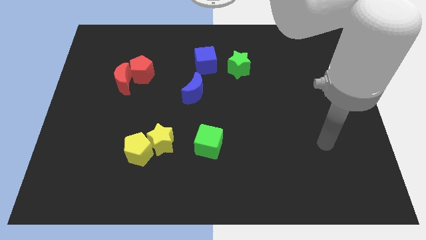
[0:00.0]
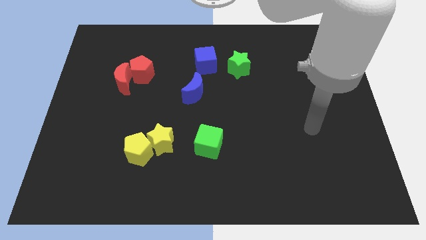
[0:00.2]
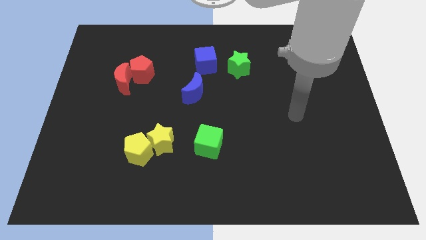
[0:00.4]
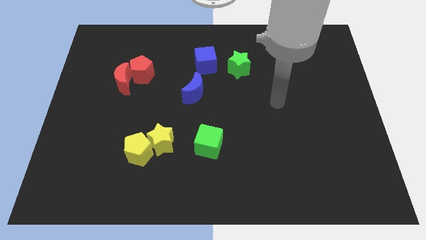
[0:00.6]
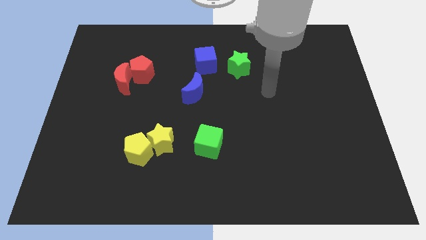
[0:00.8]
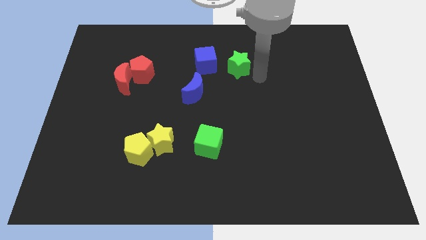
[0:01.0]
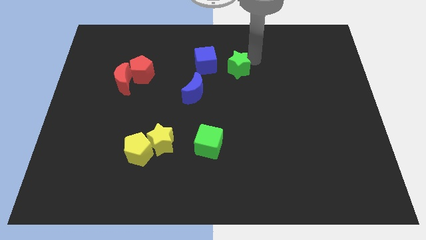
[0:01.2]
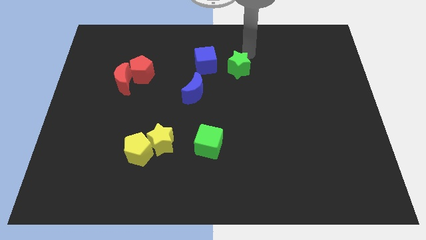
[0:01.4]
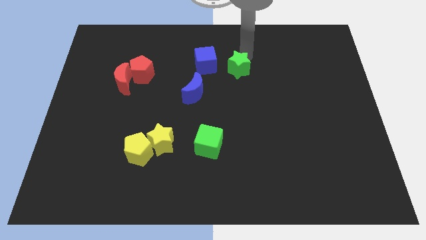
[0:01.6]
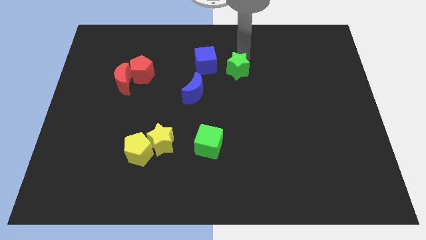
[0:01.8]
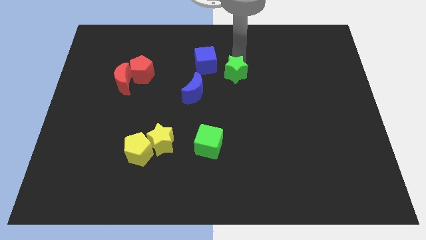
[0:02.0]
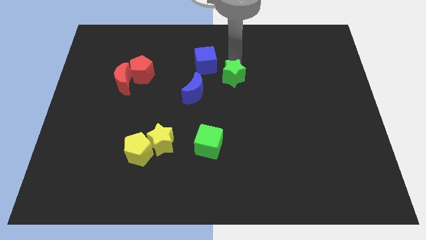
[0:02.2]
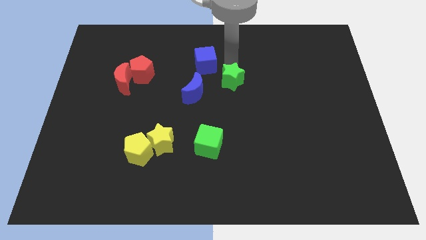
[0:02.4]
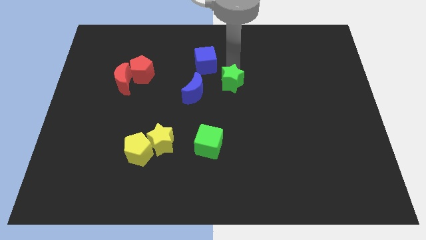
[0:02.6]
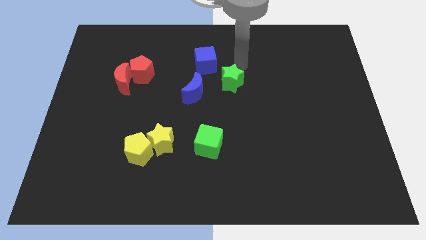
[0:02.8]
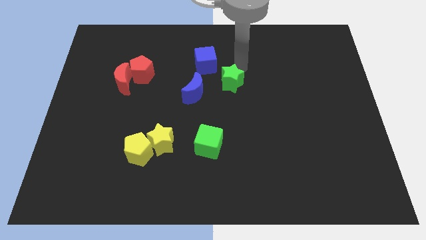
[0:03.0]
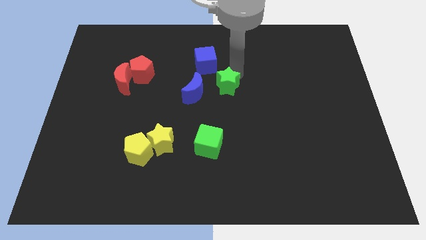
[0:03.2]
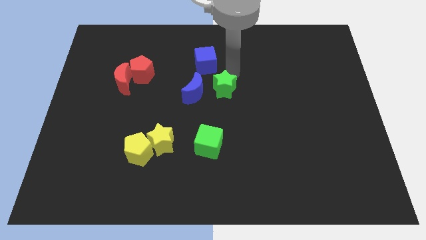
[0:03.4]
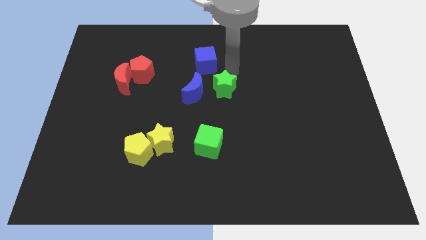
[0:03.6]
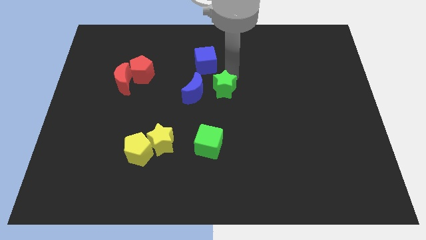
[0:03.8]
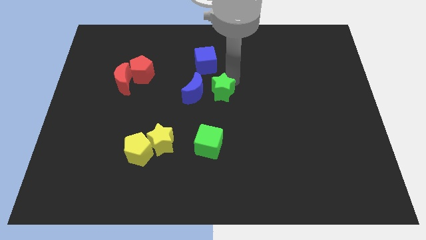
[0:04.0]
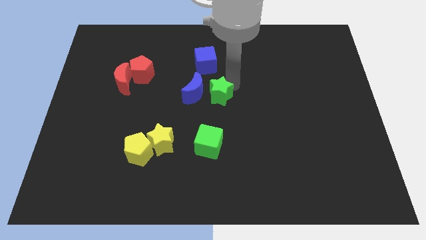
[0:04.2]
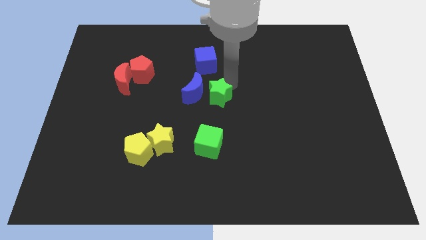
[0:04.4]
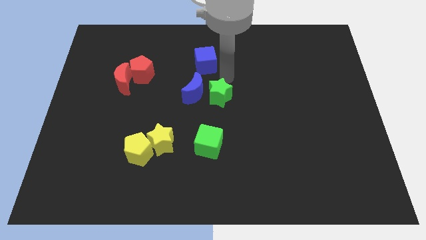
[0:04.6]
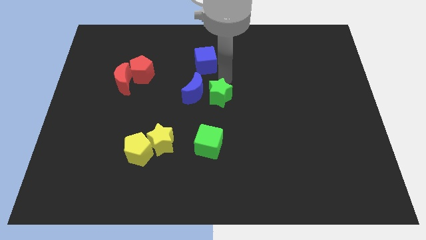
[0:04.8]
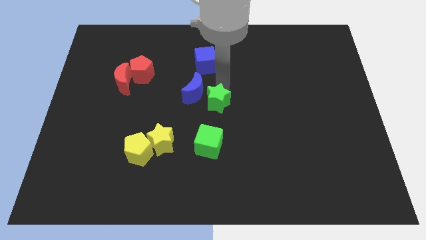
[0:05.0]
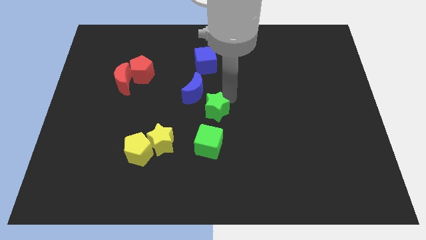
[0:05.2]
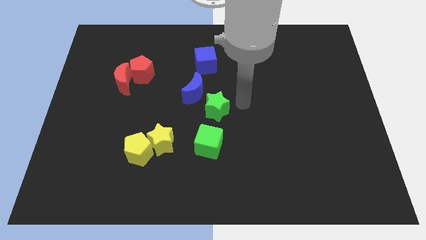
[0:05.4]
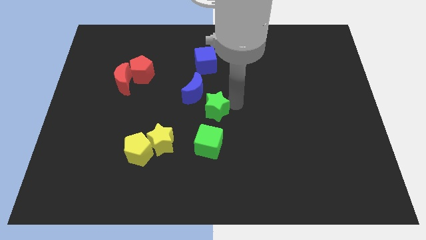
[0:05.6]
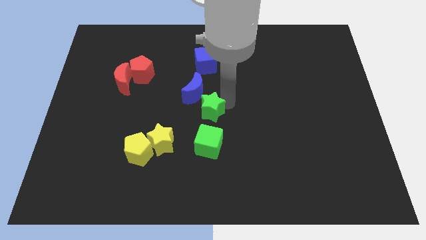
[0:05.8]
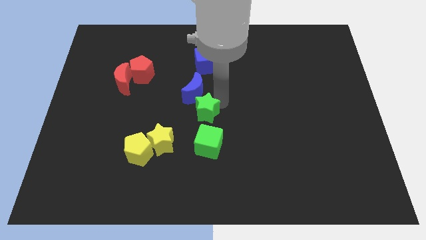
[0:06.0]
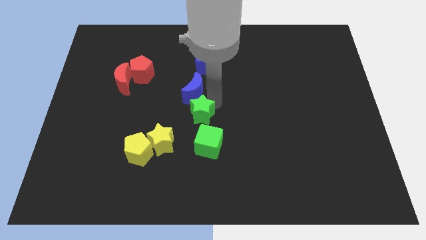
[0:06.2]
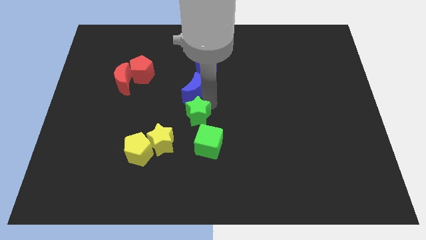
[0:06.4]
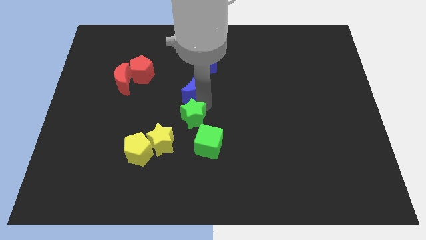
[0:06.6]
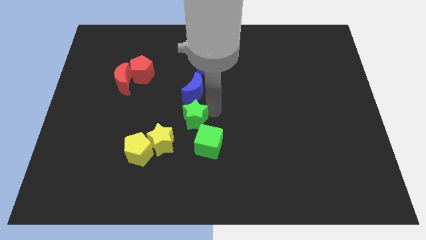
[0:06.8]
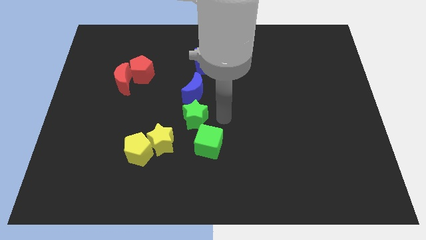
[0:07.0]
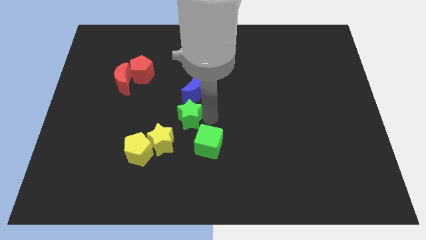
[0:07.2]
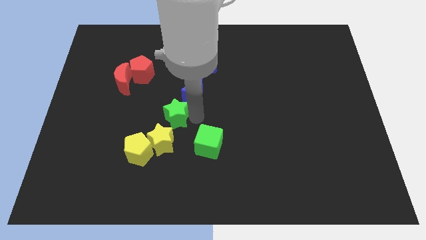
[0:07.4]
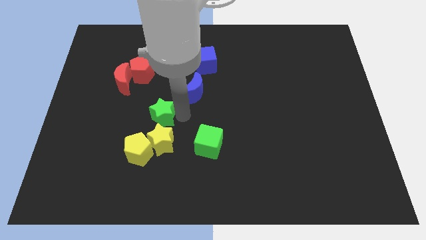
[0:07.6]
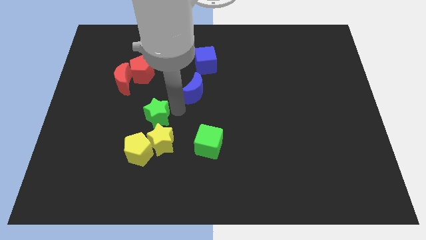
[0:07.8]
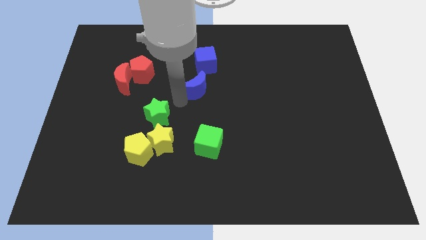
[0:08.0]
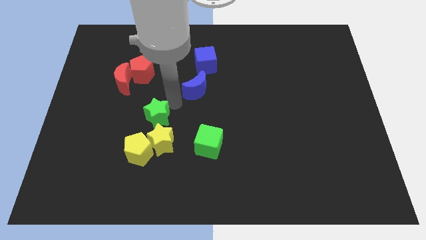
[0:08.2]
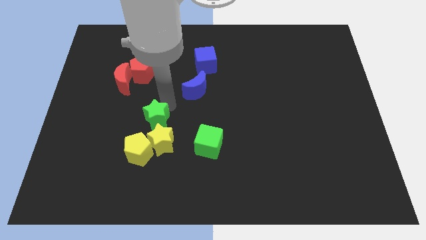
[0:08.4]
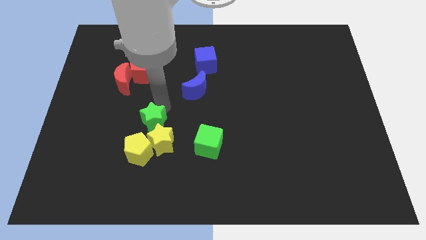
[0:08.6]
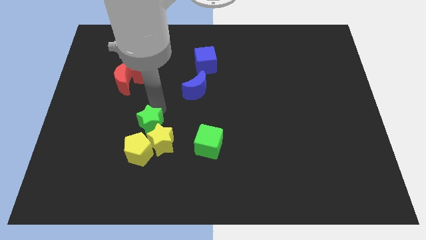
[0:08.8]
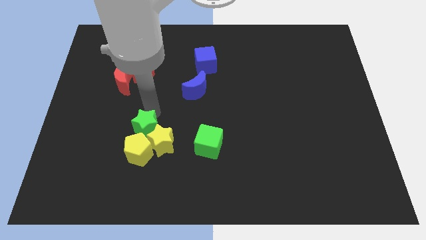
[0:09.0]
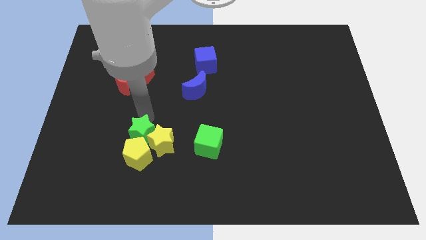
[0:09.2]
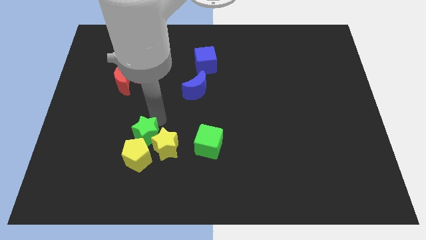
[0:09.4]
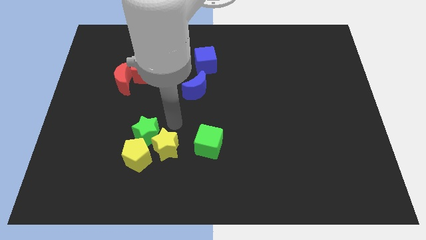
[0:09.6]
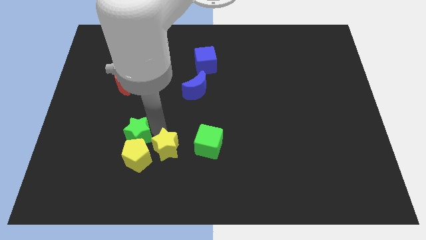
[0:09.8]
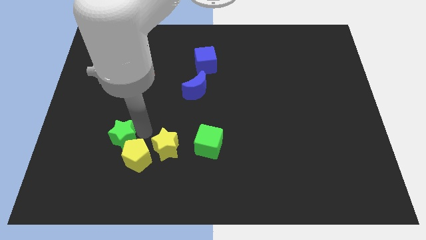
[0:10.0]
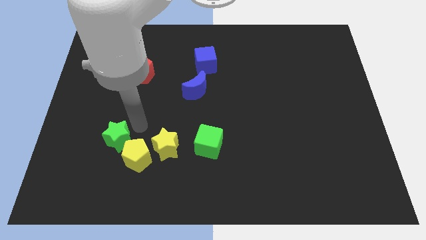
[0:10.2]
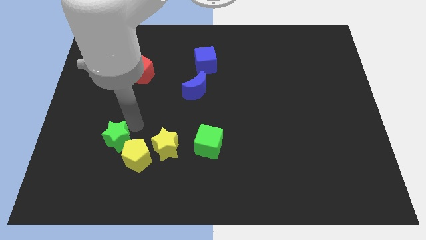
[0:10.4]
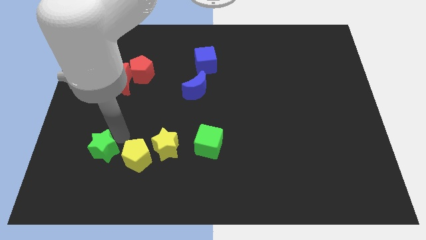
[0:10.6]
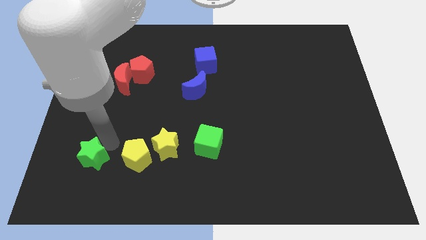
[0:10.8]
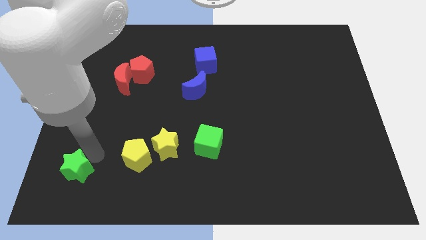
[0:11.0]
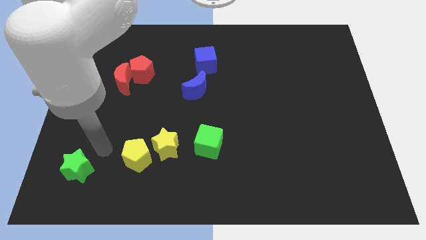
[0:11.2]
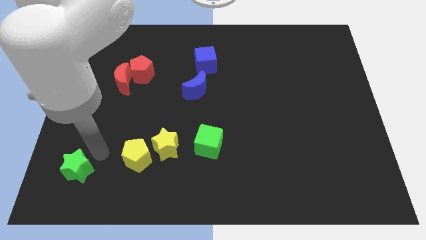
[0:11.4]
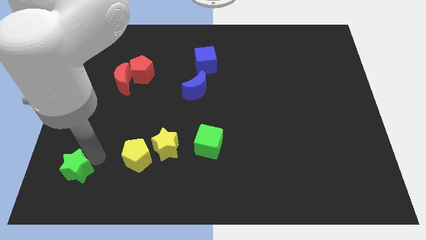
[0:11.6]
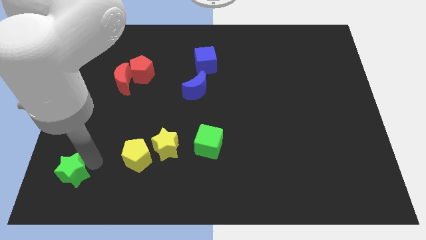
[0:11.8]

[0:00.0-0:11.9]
put the green star to the bottom left of the board
